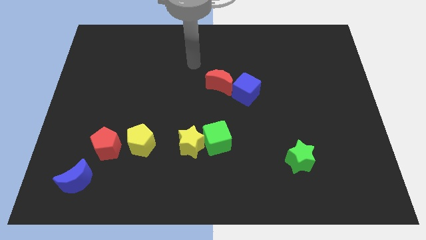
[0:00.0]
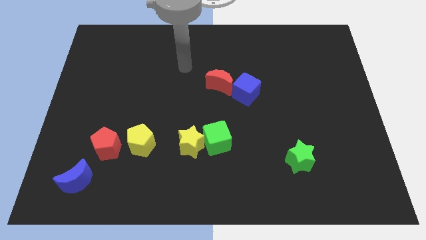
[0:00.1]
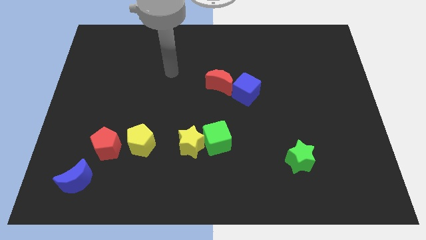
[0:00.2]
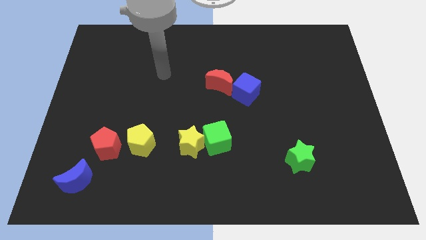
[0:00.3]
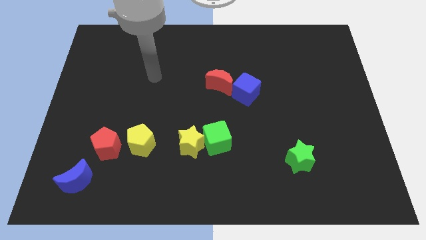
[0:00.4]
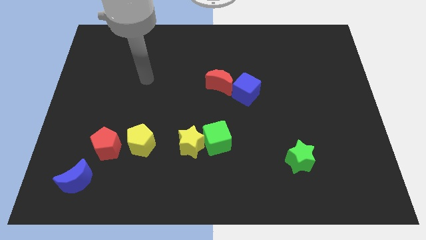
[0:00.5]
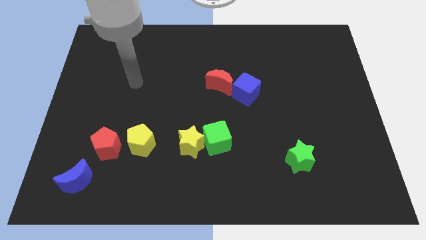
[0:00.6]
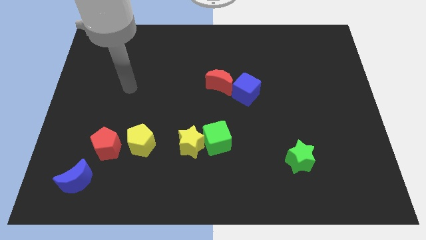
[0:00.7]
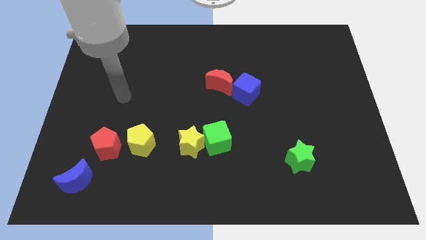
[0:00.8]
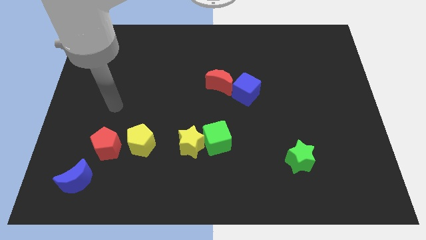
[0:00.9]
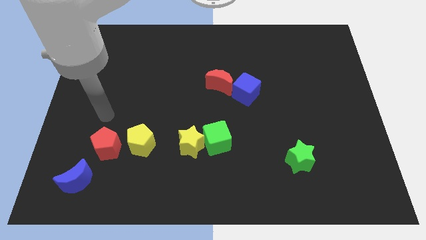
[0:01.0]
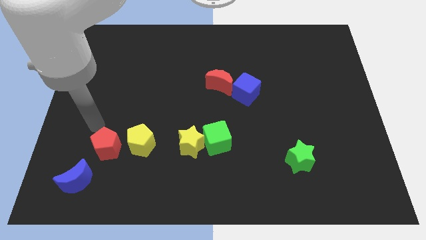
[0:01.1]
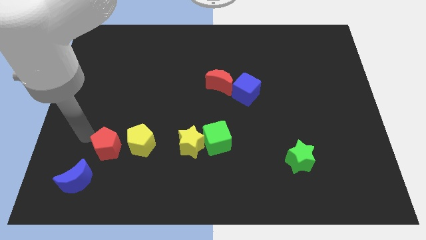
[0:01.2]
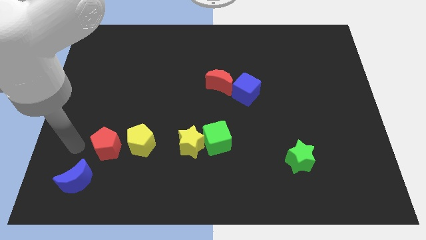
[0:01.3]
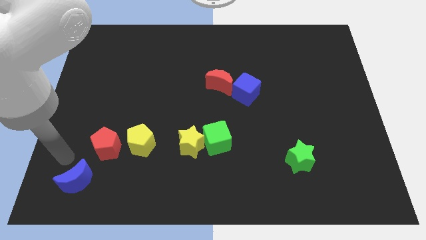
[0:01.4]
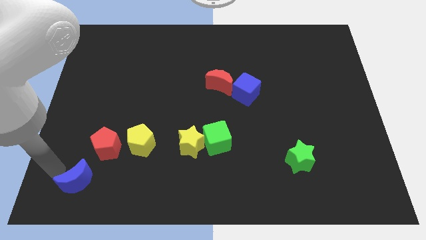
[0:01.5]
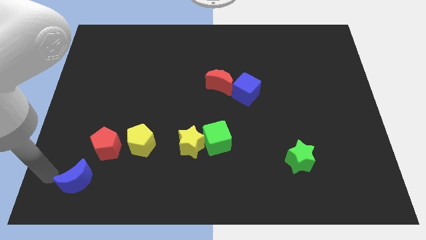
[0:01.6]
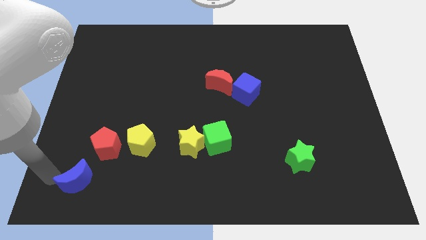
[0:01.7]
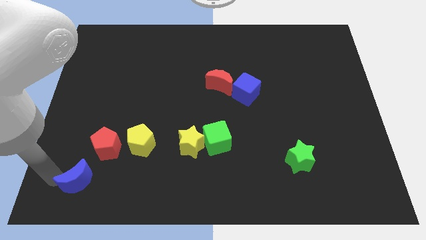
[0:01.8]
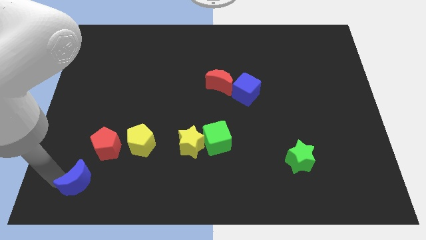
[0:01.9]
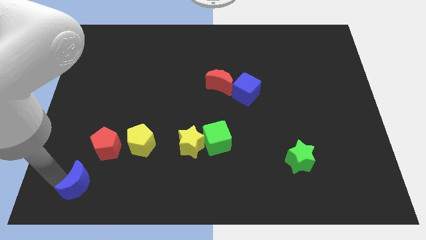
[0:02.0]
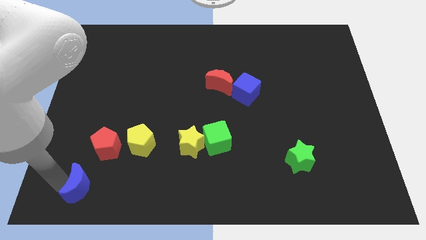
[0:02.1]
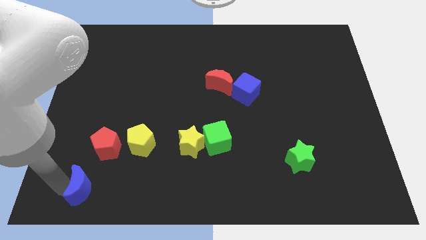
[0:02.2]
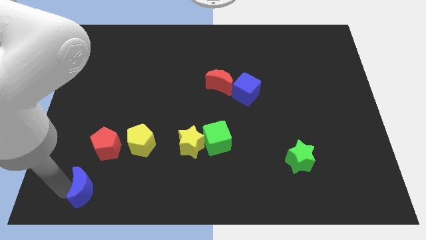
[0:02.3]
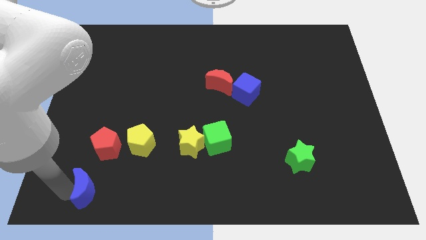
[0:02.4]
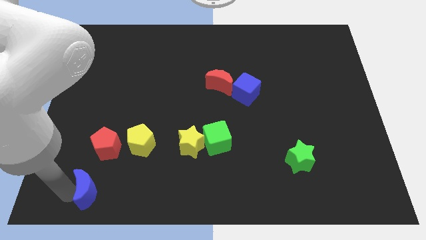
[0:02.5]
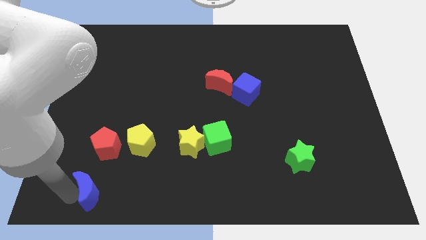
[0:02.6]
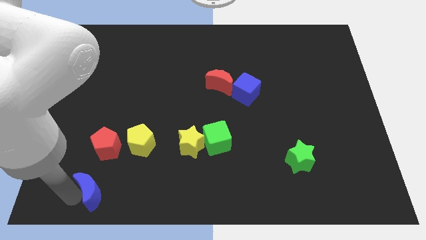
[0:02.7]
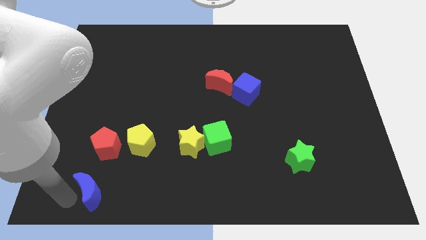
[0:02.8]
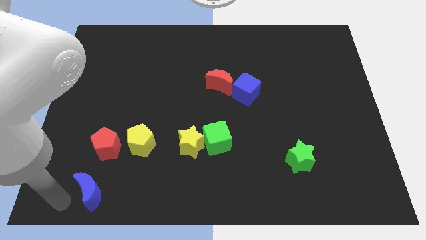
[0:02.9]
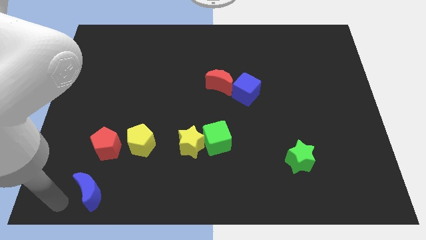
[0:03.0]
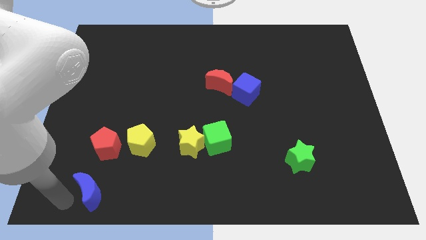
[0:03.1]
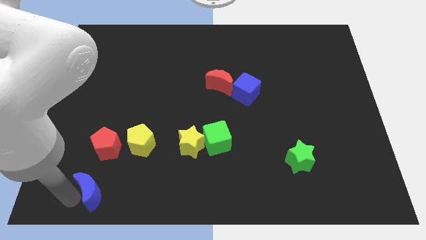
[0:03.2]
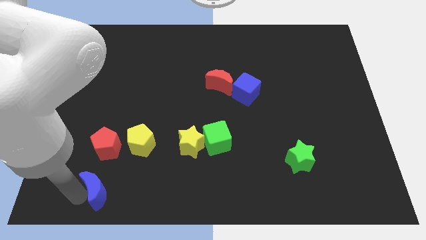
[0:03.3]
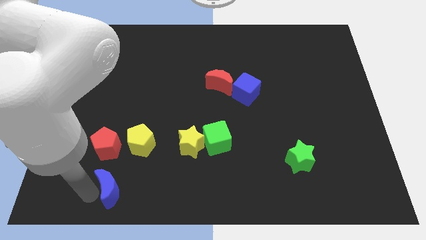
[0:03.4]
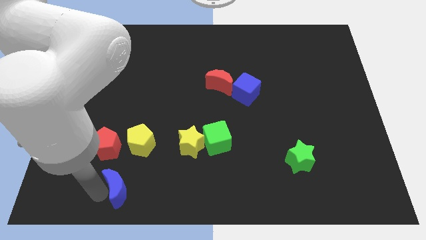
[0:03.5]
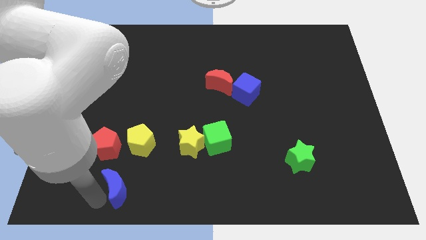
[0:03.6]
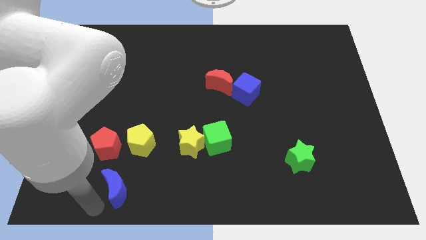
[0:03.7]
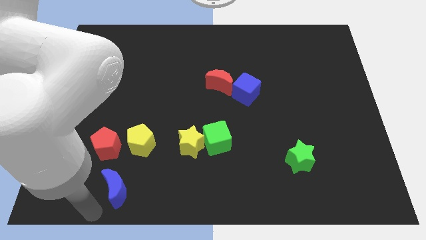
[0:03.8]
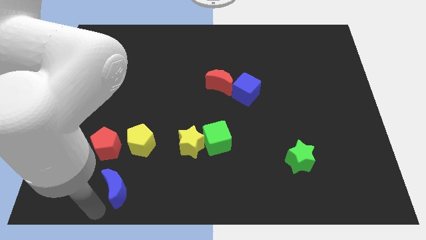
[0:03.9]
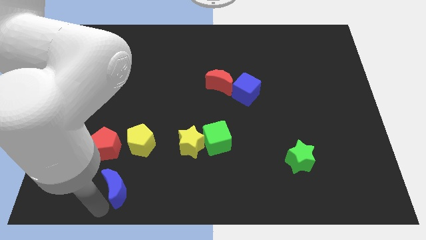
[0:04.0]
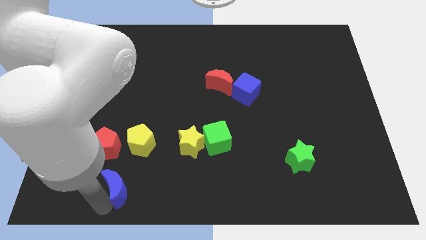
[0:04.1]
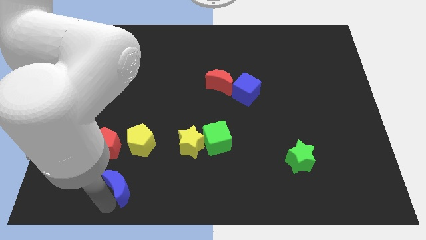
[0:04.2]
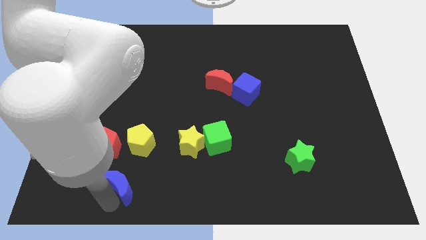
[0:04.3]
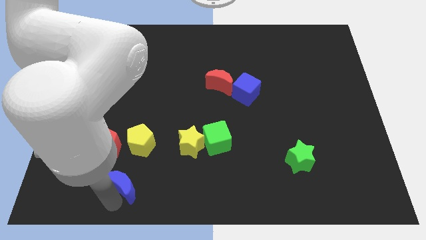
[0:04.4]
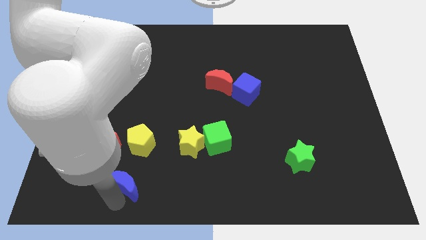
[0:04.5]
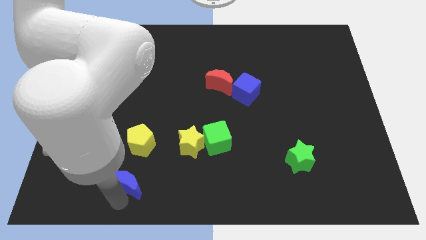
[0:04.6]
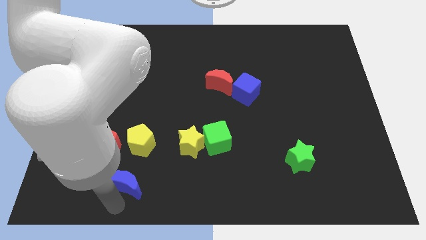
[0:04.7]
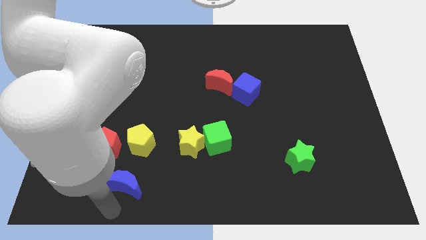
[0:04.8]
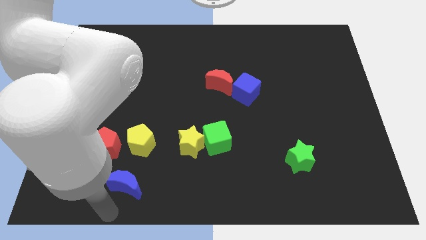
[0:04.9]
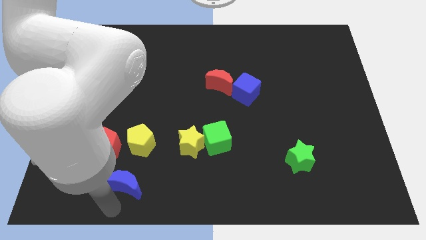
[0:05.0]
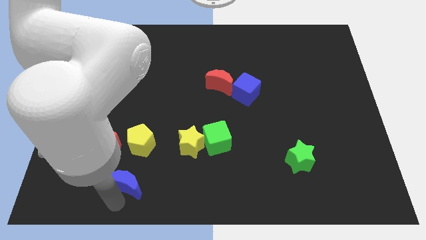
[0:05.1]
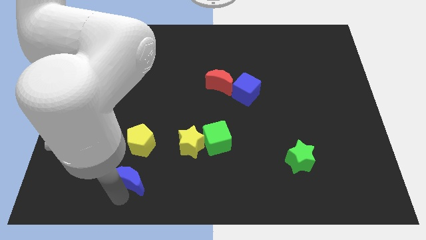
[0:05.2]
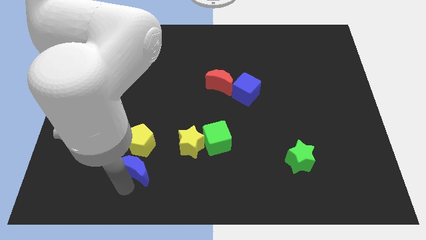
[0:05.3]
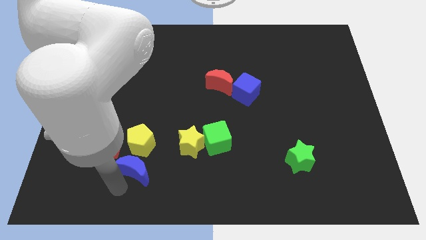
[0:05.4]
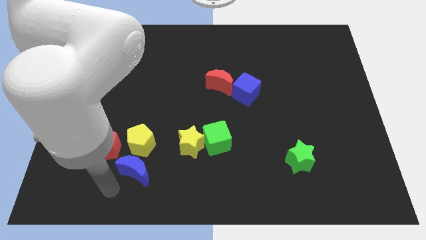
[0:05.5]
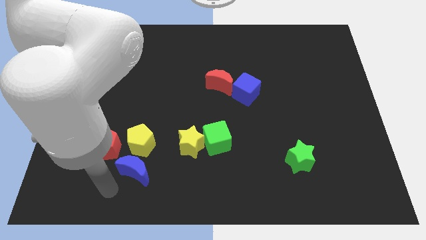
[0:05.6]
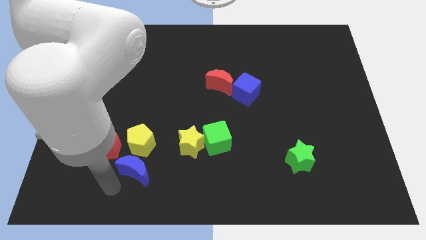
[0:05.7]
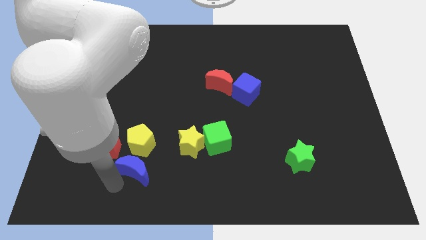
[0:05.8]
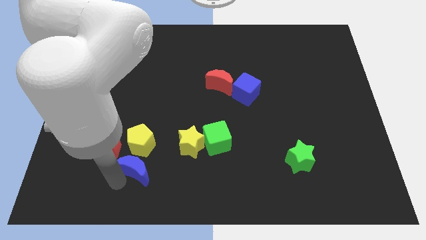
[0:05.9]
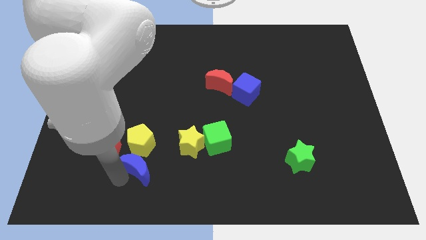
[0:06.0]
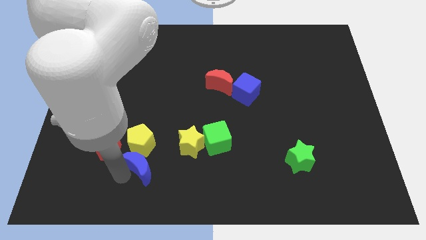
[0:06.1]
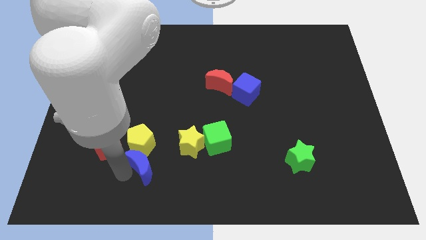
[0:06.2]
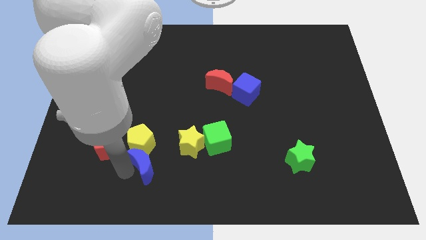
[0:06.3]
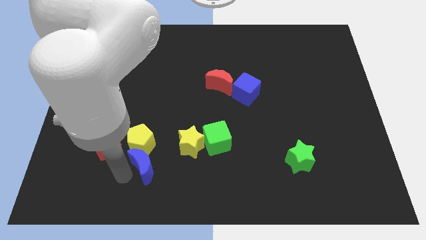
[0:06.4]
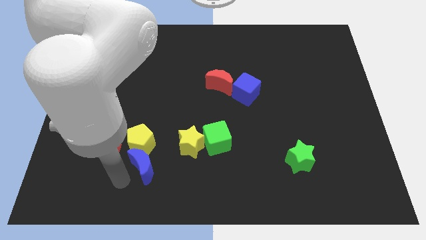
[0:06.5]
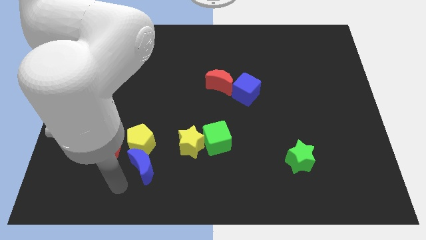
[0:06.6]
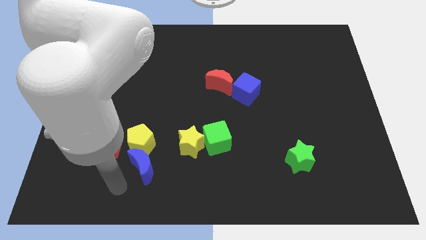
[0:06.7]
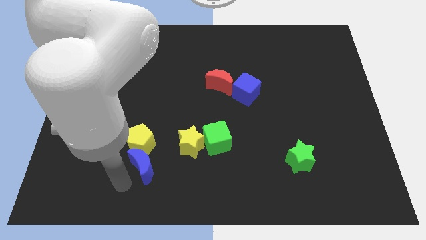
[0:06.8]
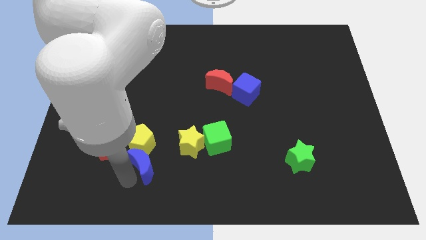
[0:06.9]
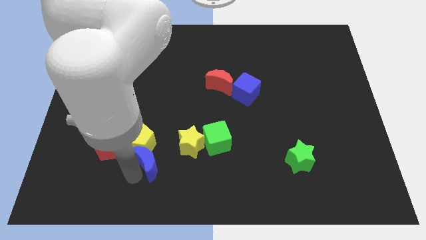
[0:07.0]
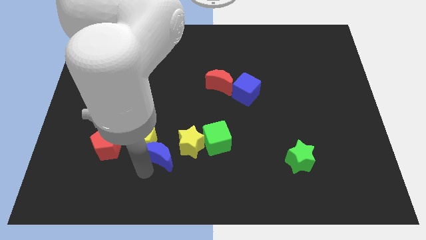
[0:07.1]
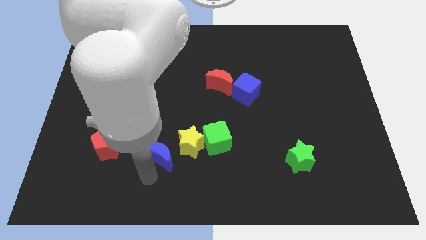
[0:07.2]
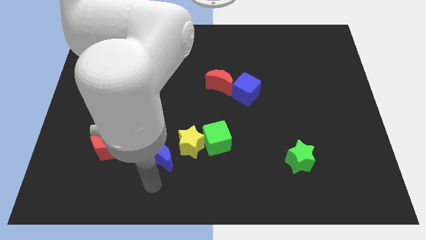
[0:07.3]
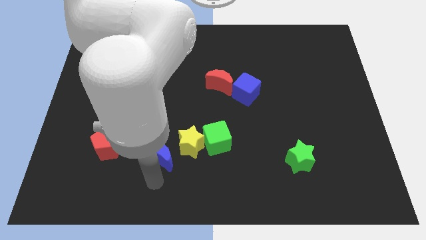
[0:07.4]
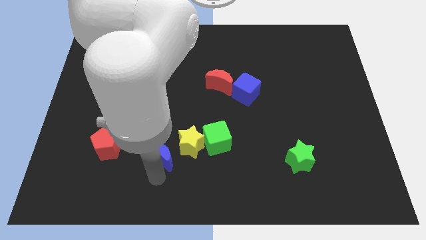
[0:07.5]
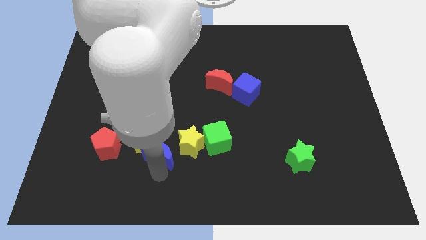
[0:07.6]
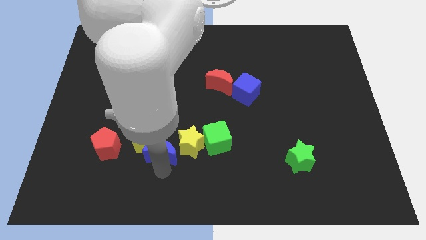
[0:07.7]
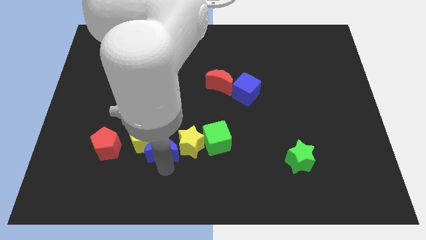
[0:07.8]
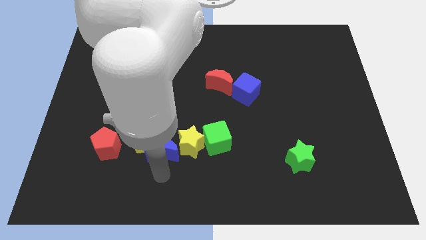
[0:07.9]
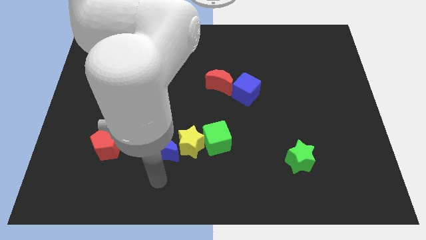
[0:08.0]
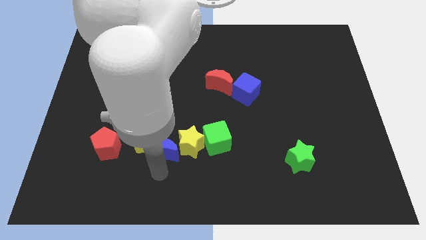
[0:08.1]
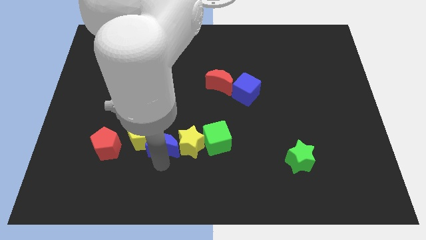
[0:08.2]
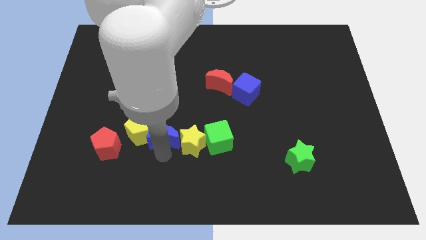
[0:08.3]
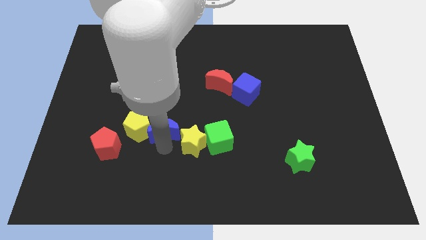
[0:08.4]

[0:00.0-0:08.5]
push the blue moon to the top right of the yellow pentagon
